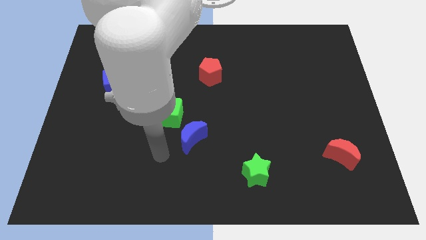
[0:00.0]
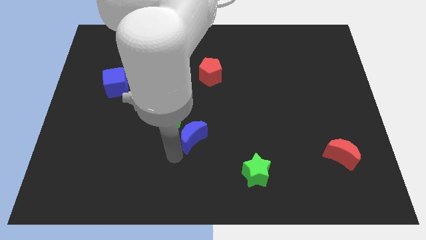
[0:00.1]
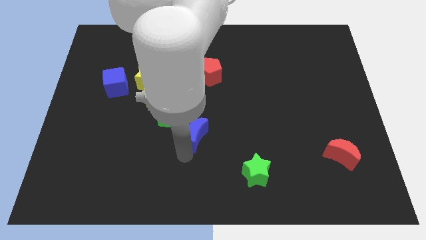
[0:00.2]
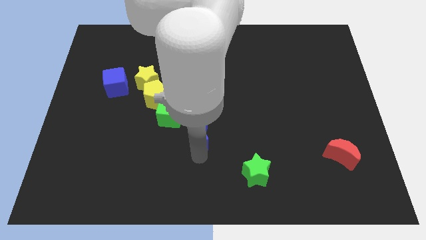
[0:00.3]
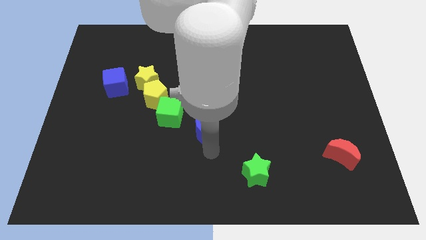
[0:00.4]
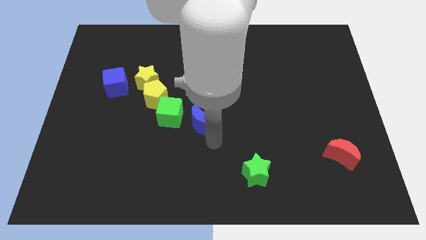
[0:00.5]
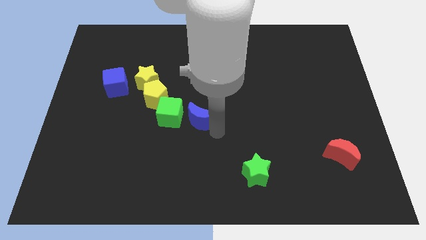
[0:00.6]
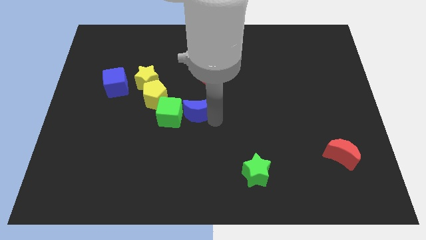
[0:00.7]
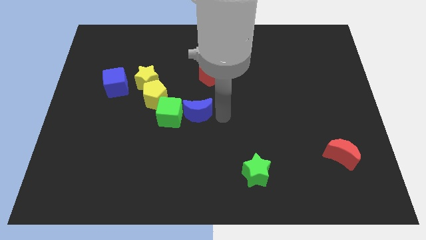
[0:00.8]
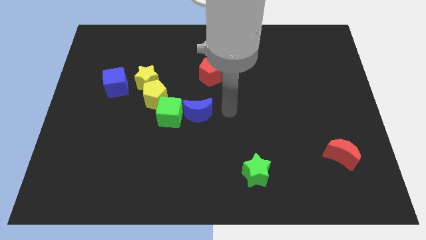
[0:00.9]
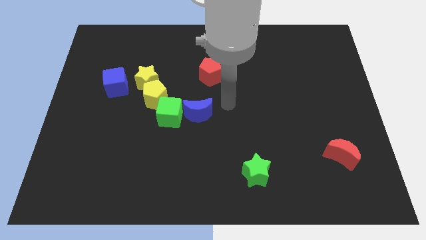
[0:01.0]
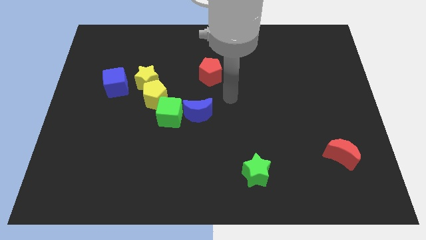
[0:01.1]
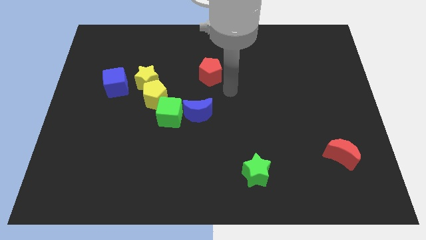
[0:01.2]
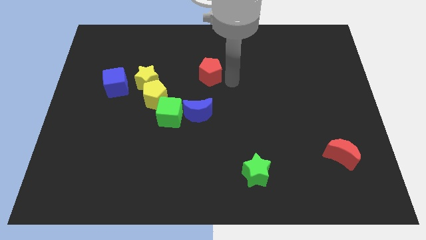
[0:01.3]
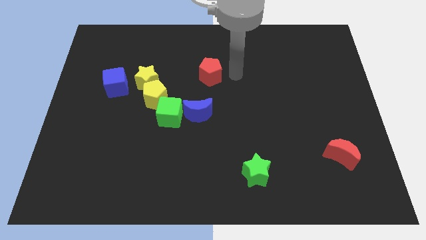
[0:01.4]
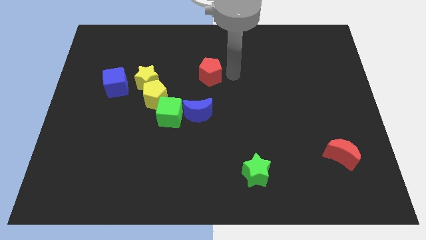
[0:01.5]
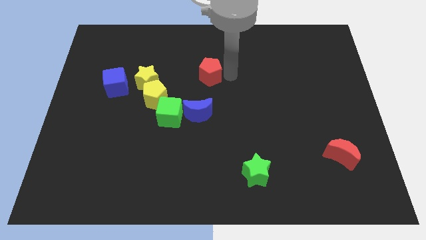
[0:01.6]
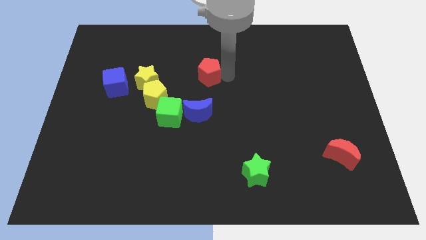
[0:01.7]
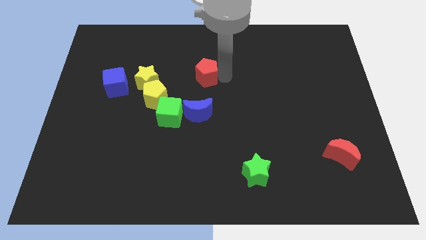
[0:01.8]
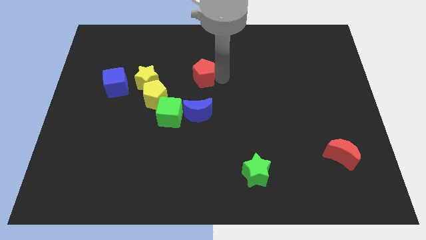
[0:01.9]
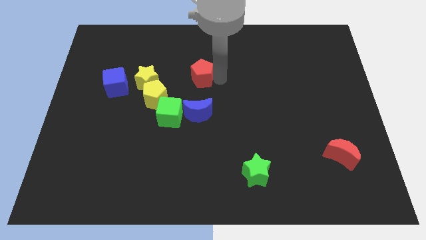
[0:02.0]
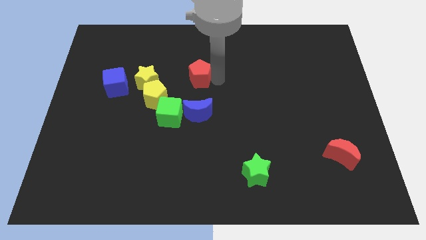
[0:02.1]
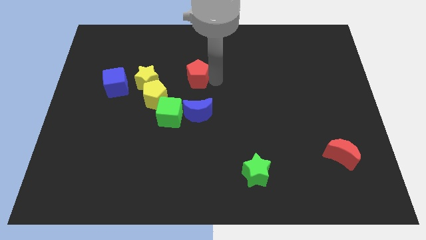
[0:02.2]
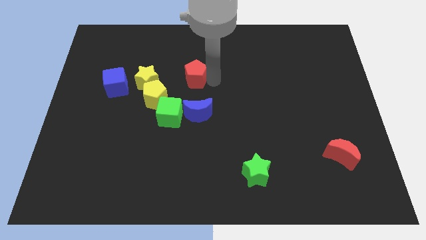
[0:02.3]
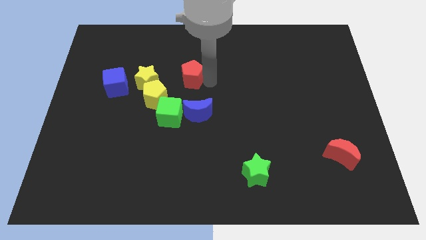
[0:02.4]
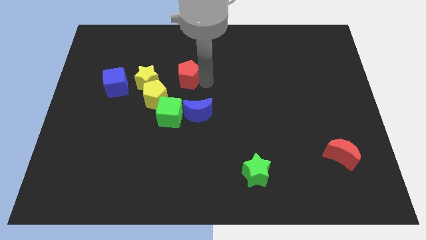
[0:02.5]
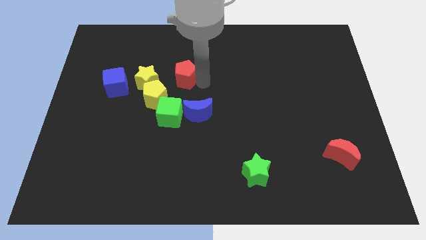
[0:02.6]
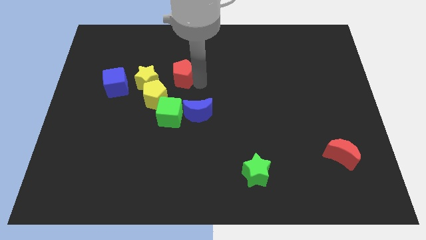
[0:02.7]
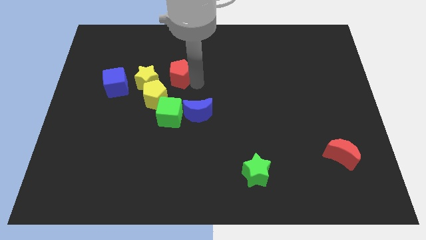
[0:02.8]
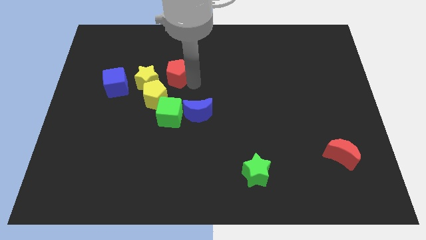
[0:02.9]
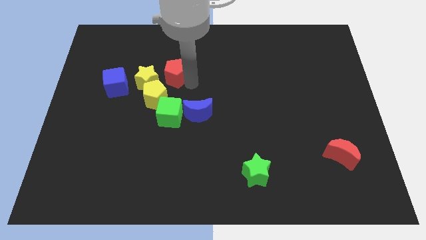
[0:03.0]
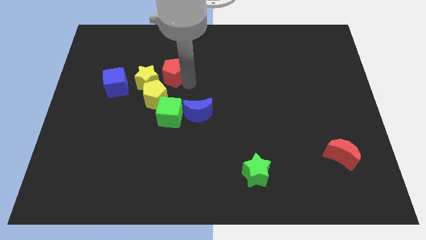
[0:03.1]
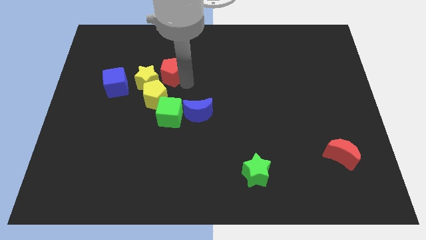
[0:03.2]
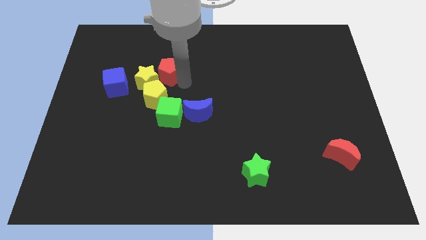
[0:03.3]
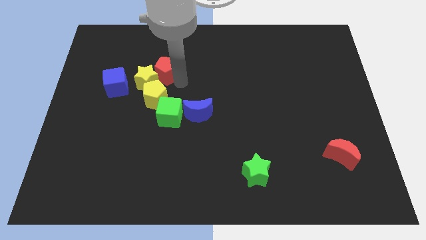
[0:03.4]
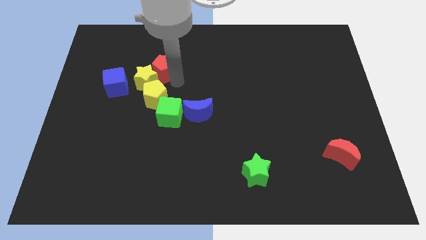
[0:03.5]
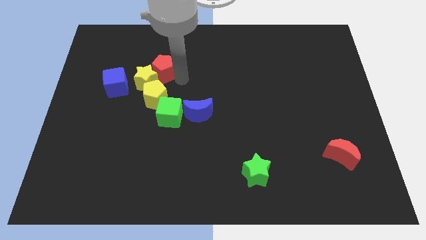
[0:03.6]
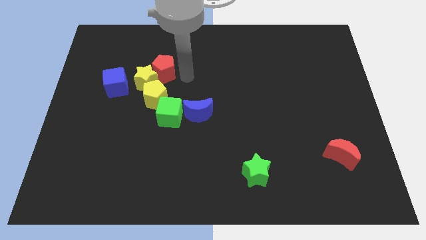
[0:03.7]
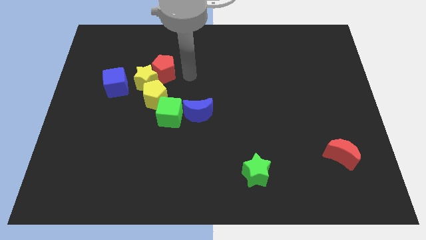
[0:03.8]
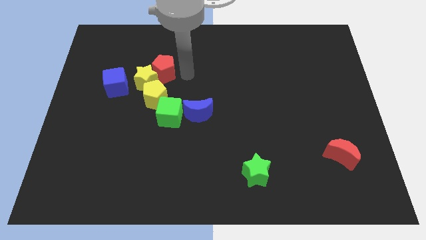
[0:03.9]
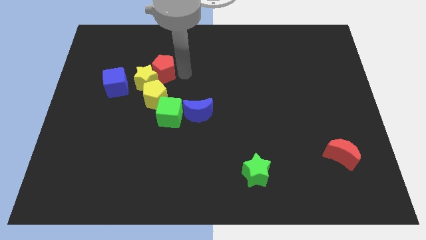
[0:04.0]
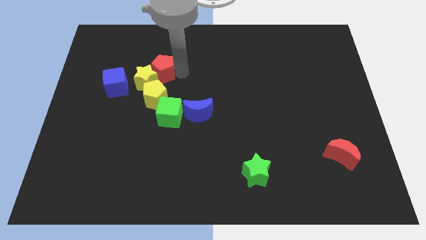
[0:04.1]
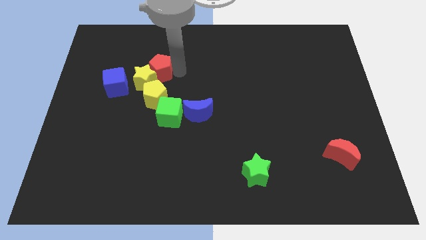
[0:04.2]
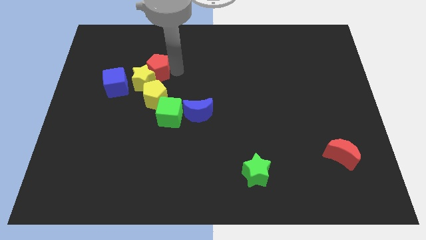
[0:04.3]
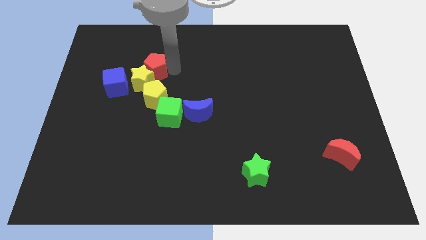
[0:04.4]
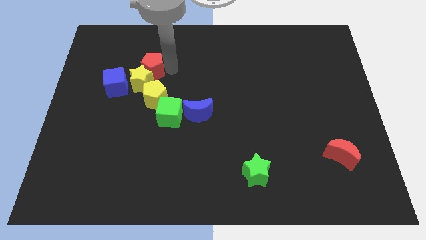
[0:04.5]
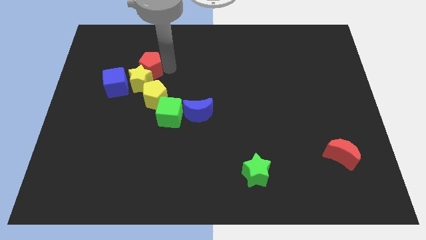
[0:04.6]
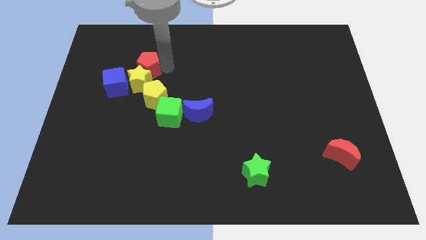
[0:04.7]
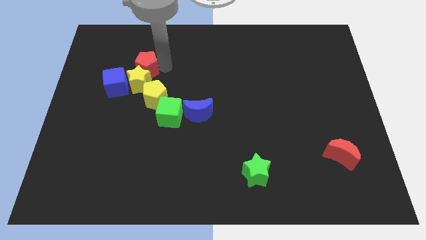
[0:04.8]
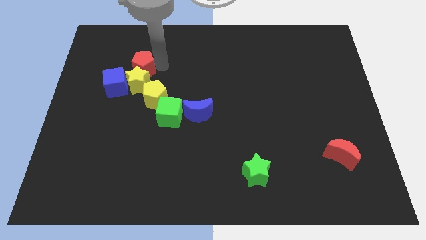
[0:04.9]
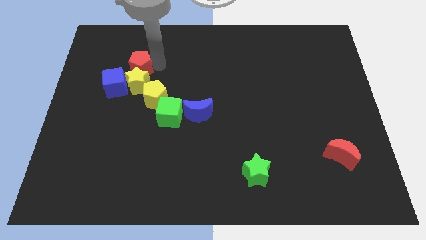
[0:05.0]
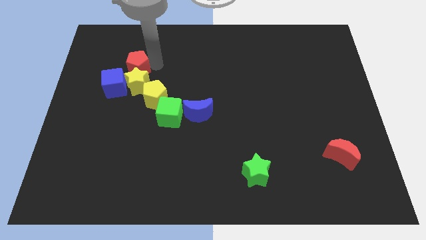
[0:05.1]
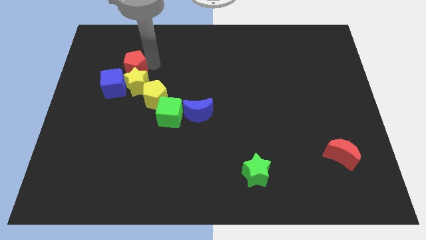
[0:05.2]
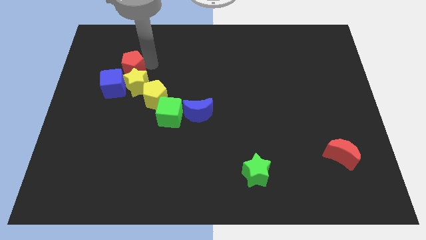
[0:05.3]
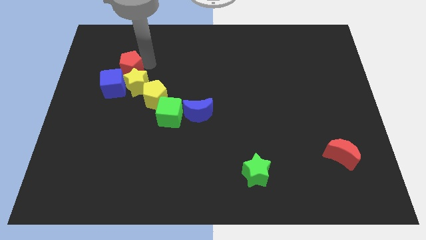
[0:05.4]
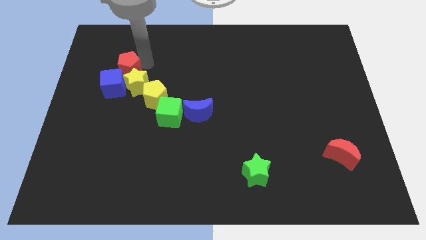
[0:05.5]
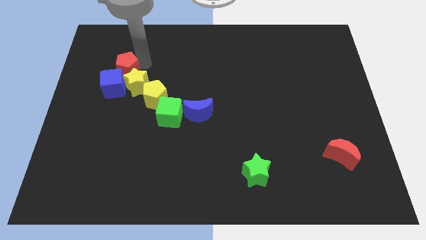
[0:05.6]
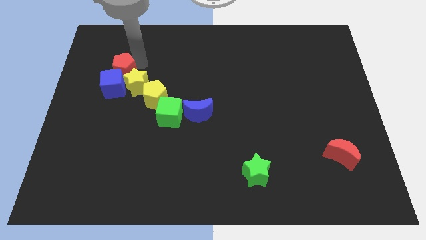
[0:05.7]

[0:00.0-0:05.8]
push the red pentagon just left of the yellow star

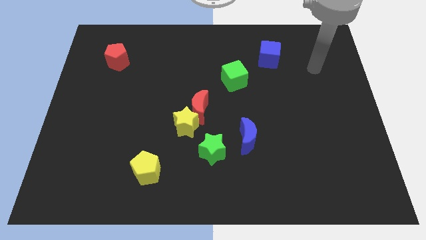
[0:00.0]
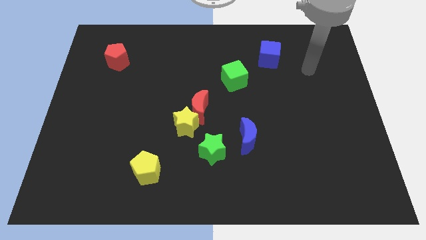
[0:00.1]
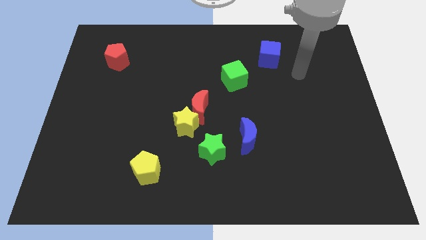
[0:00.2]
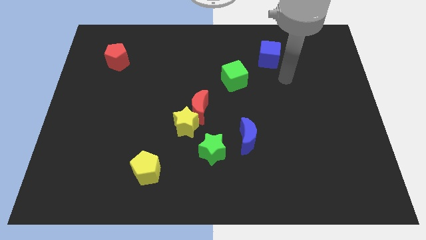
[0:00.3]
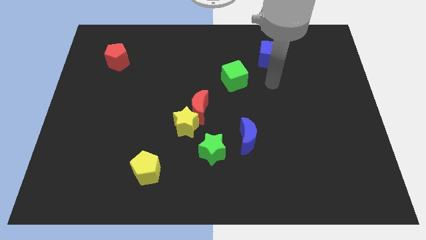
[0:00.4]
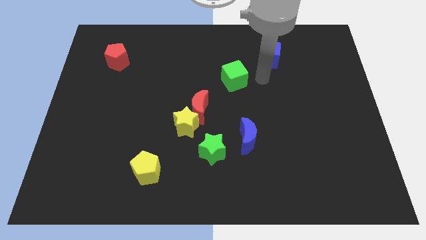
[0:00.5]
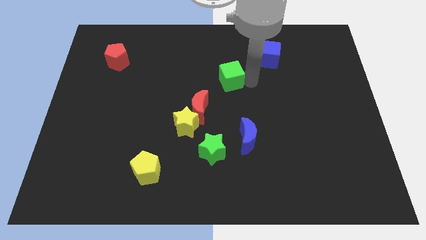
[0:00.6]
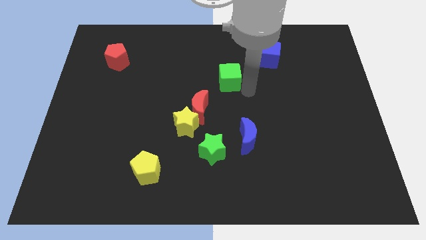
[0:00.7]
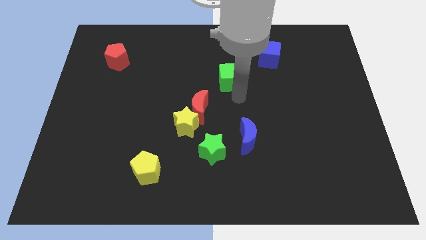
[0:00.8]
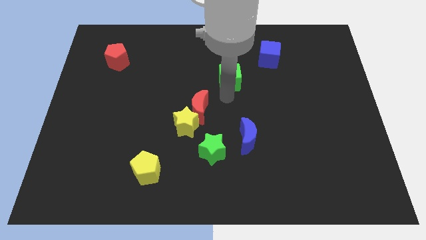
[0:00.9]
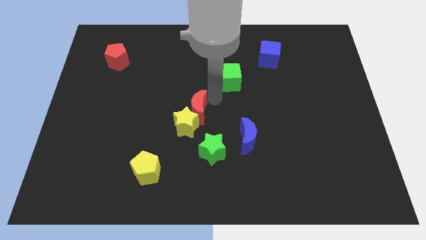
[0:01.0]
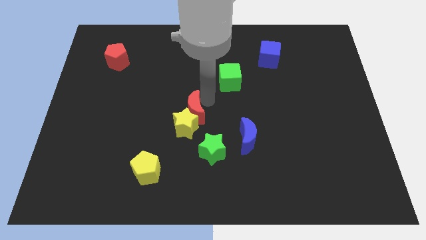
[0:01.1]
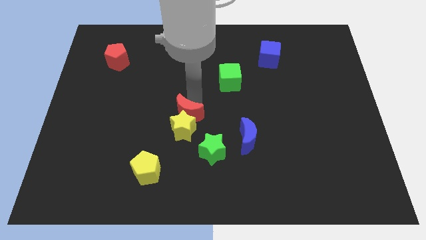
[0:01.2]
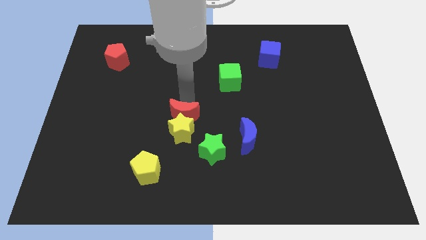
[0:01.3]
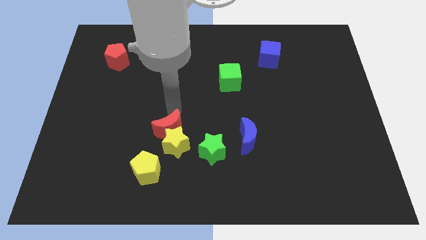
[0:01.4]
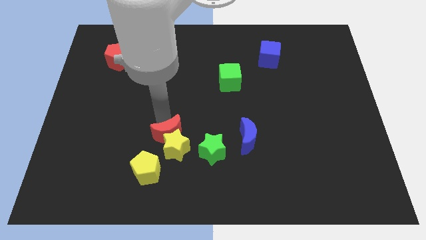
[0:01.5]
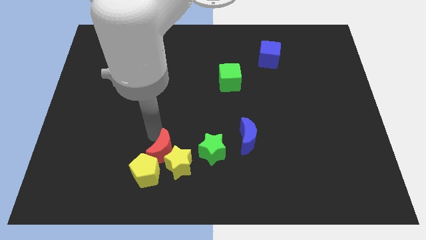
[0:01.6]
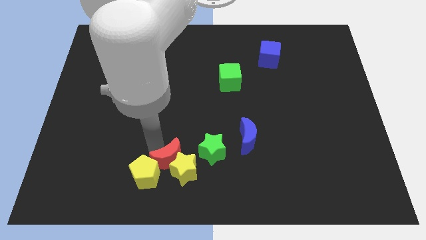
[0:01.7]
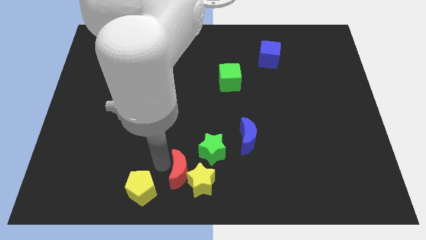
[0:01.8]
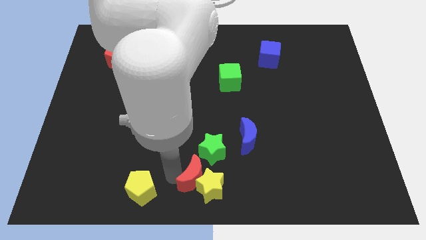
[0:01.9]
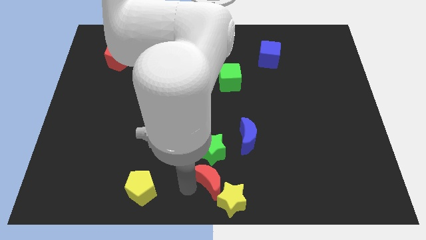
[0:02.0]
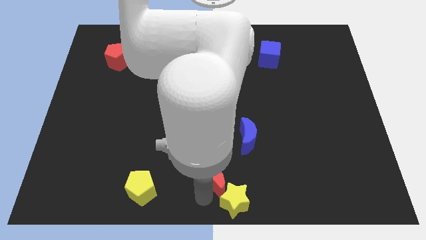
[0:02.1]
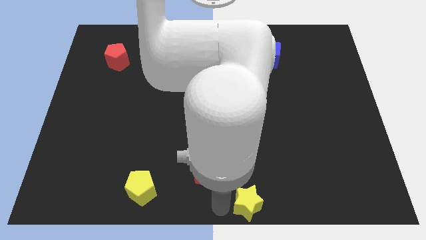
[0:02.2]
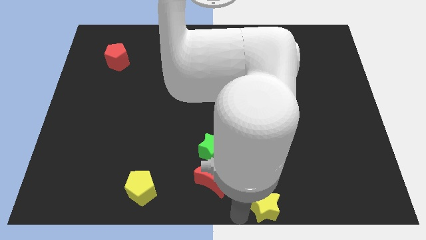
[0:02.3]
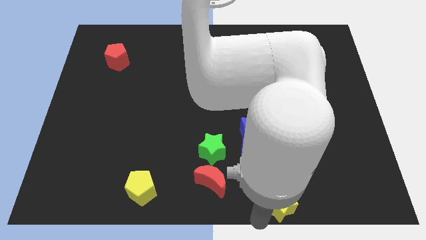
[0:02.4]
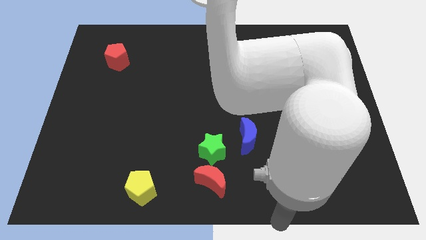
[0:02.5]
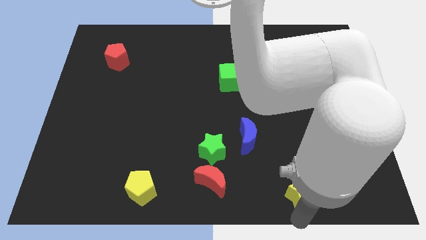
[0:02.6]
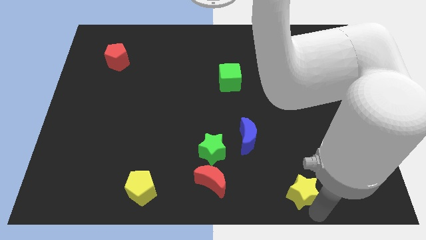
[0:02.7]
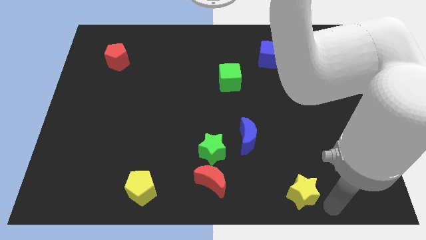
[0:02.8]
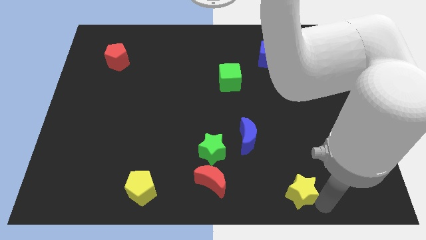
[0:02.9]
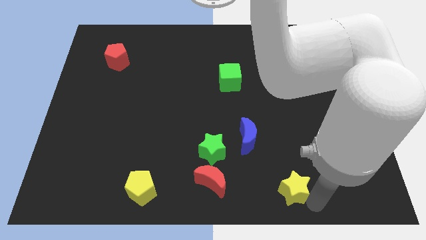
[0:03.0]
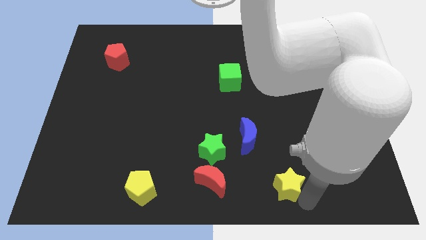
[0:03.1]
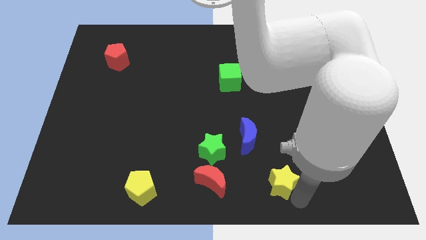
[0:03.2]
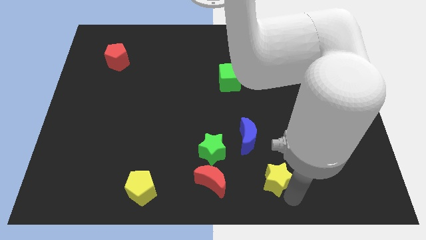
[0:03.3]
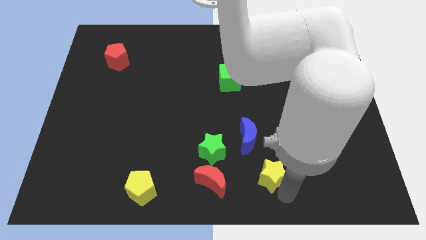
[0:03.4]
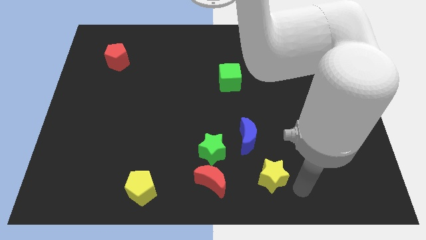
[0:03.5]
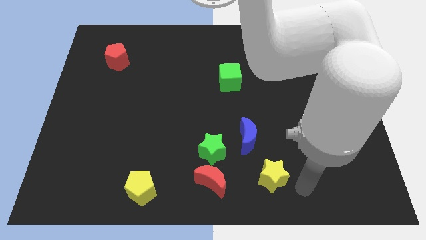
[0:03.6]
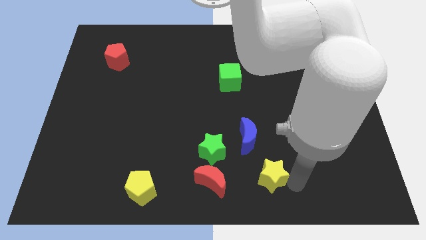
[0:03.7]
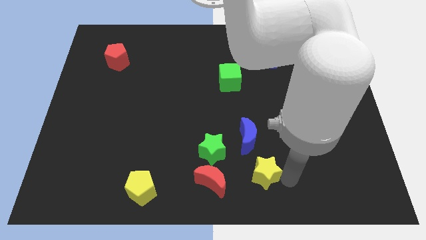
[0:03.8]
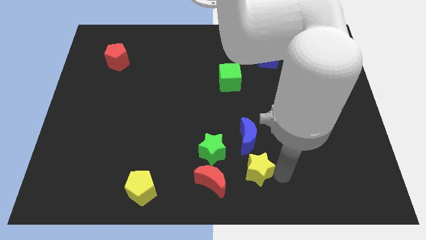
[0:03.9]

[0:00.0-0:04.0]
move the yellow star to the right of the green star
